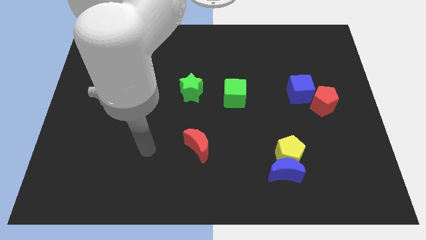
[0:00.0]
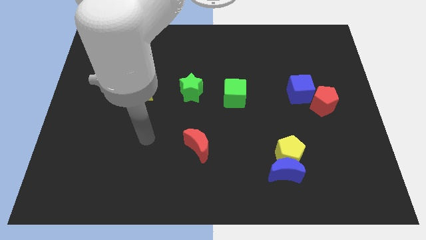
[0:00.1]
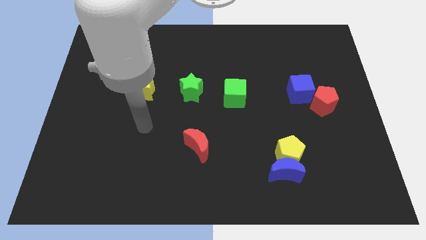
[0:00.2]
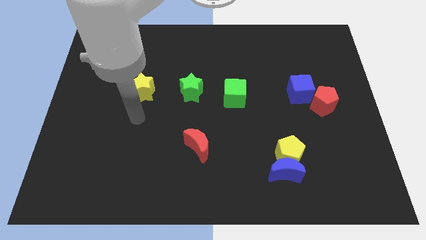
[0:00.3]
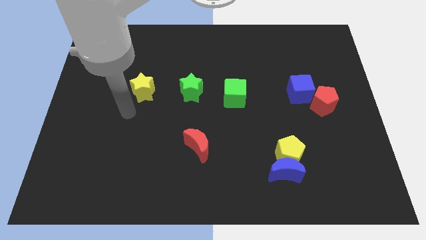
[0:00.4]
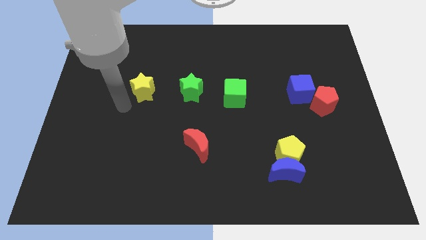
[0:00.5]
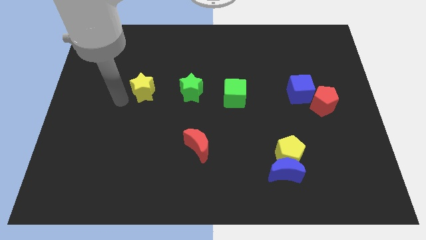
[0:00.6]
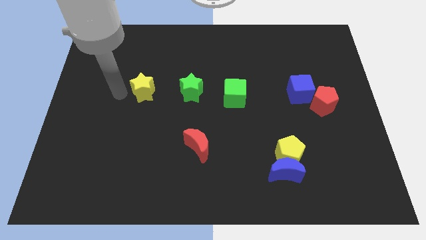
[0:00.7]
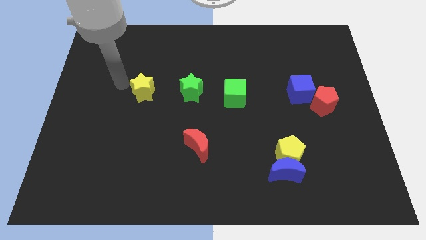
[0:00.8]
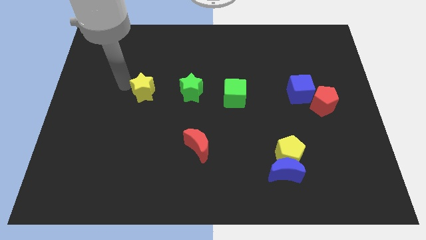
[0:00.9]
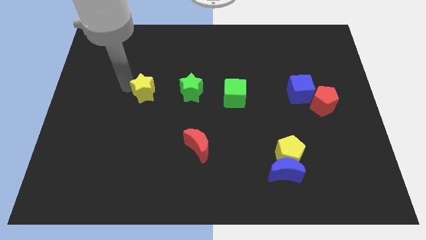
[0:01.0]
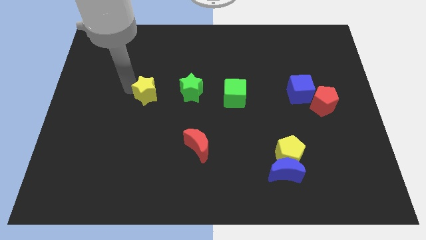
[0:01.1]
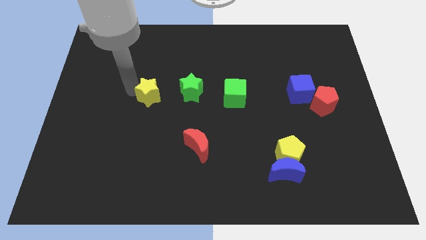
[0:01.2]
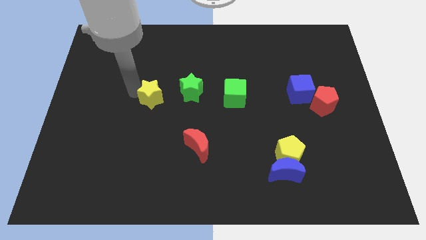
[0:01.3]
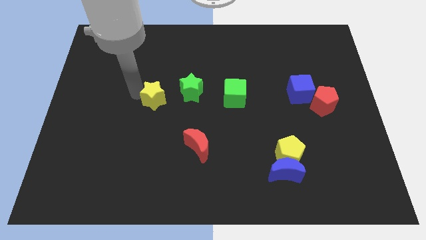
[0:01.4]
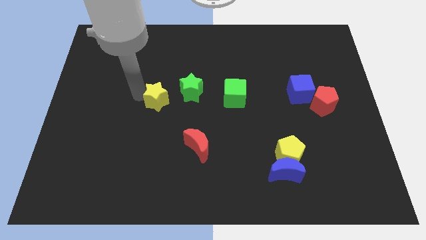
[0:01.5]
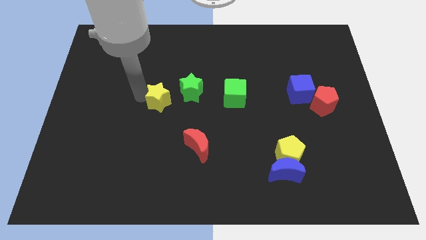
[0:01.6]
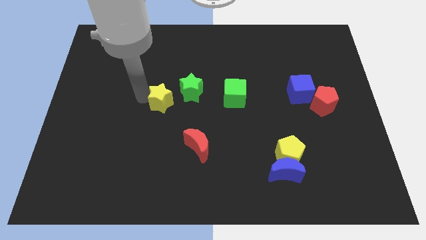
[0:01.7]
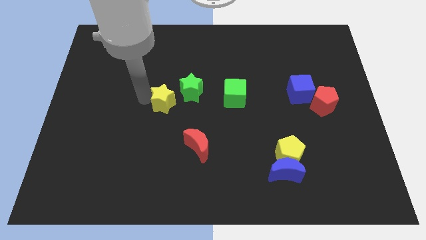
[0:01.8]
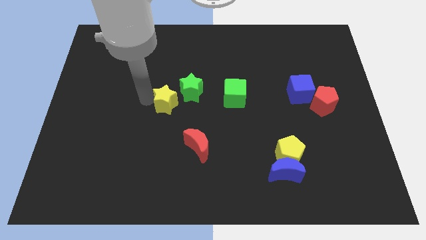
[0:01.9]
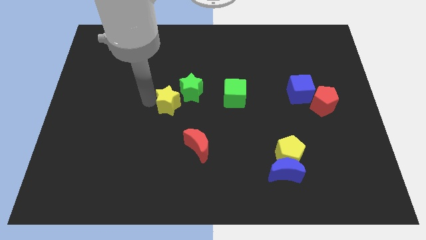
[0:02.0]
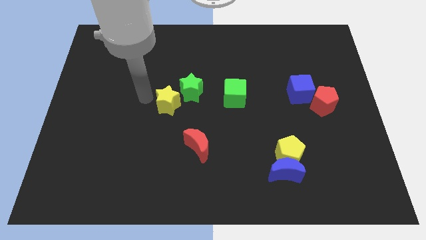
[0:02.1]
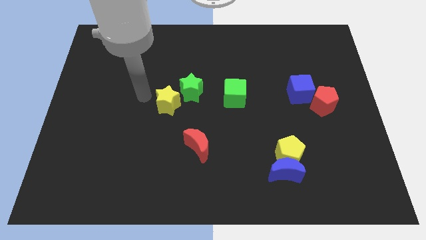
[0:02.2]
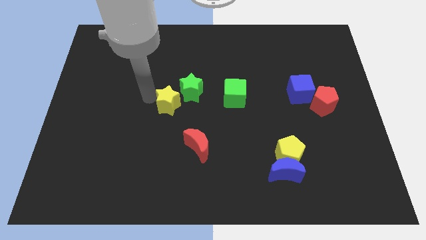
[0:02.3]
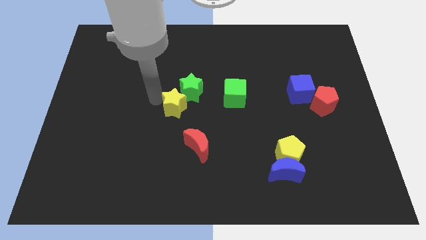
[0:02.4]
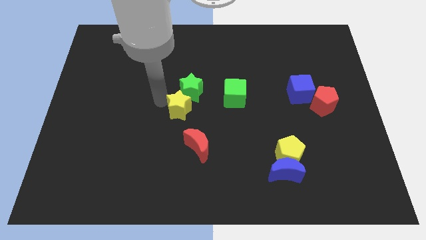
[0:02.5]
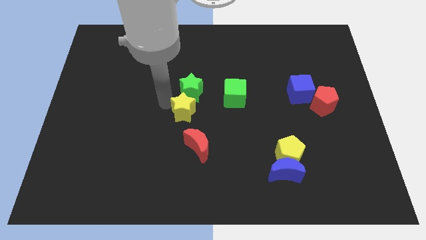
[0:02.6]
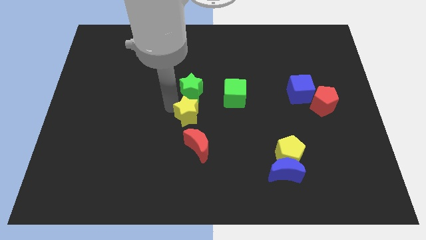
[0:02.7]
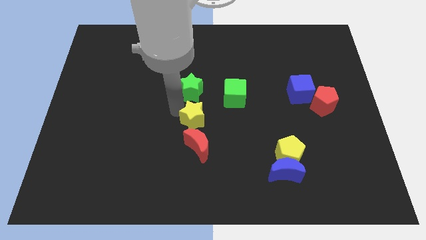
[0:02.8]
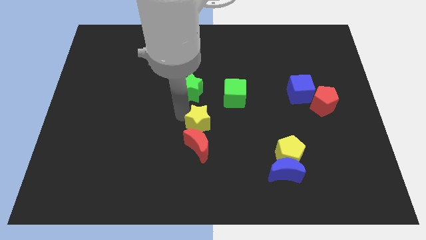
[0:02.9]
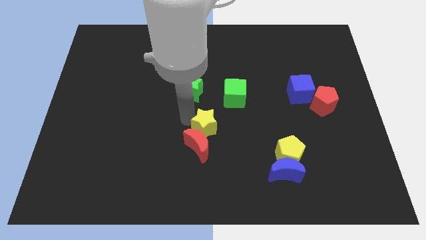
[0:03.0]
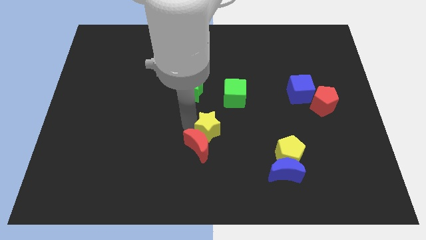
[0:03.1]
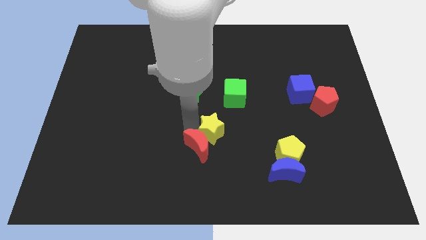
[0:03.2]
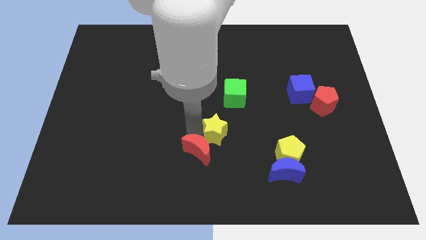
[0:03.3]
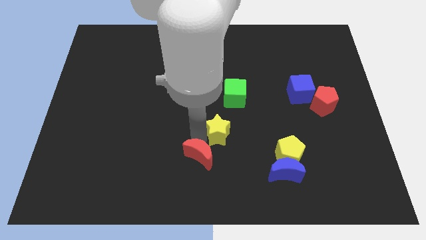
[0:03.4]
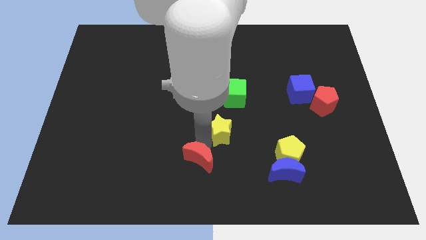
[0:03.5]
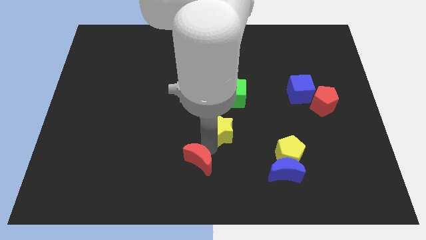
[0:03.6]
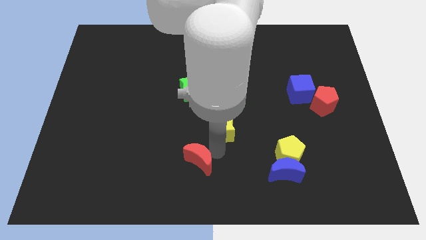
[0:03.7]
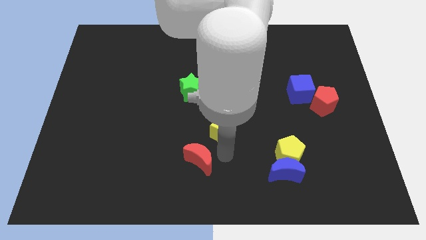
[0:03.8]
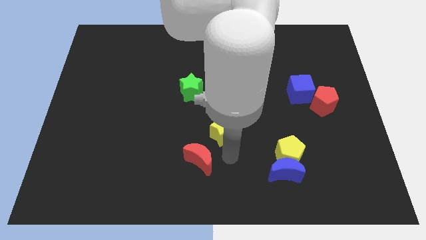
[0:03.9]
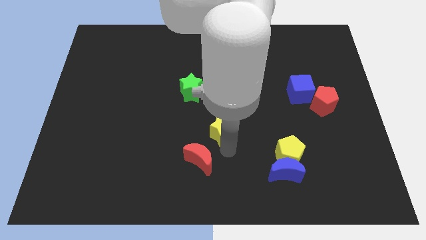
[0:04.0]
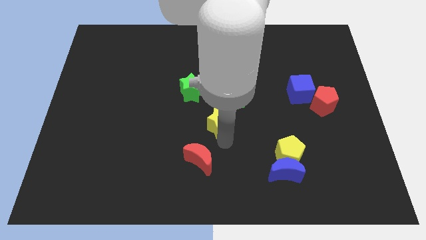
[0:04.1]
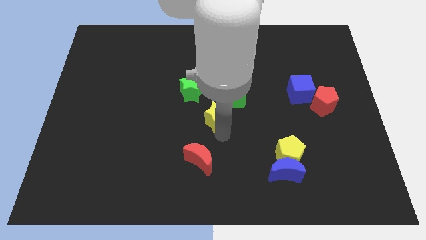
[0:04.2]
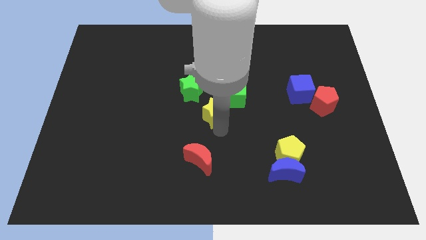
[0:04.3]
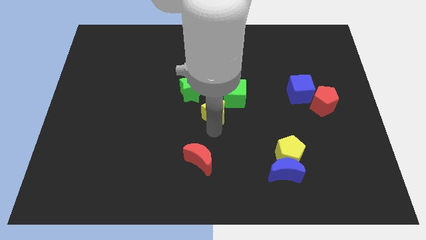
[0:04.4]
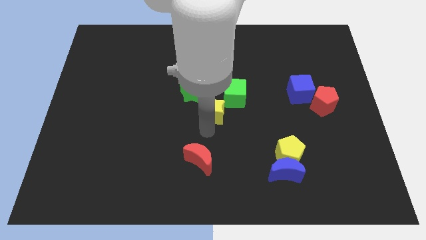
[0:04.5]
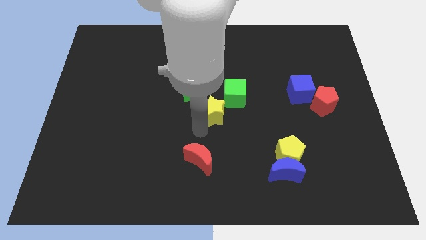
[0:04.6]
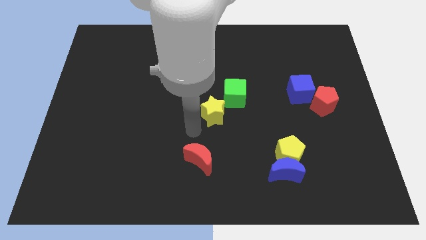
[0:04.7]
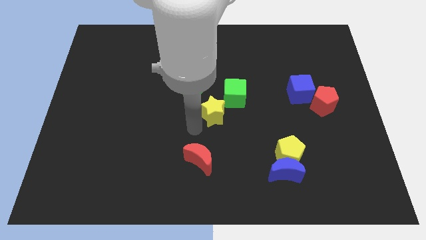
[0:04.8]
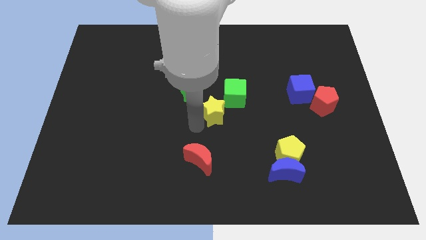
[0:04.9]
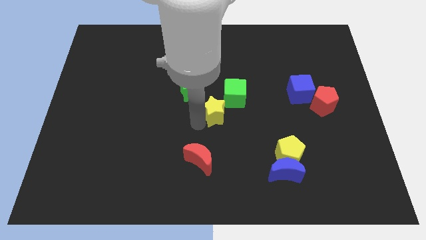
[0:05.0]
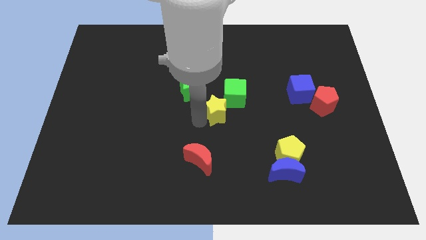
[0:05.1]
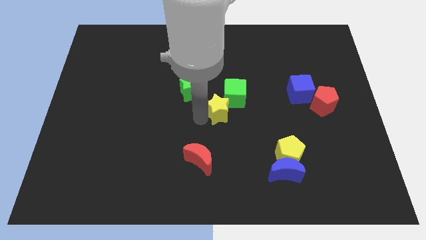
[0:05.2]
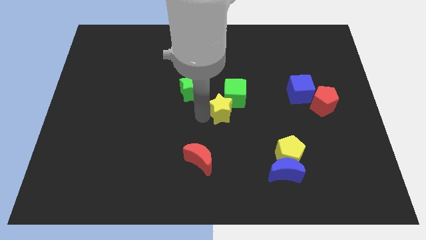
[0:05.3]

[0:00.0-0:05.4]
slide the yellow star towards the green cube

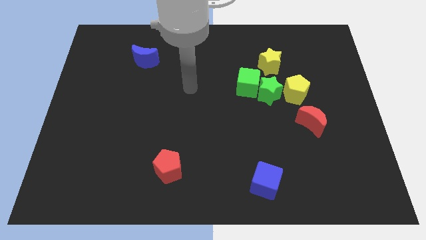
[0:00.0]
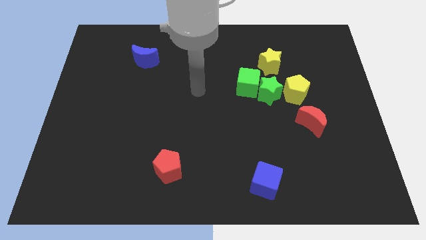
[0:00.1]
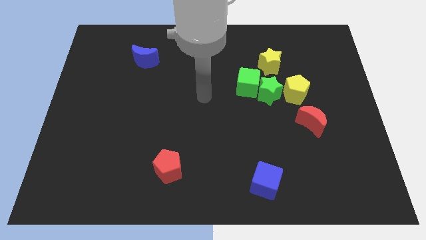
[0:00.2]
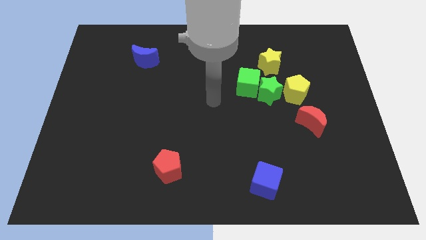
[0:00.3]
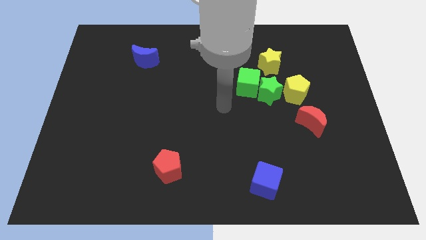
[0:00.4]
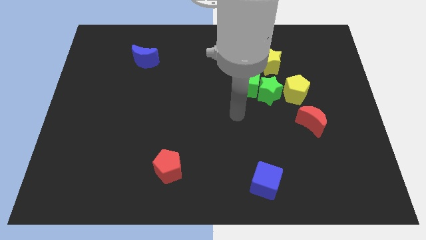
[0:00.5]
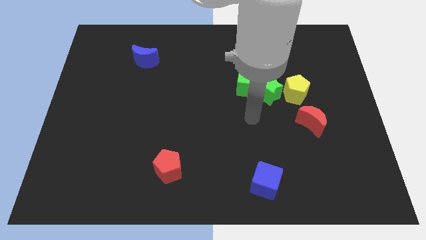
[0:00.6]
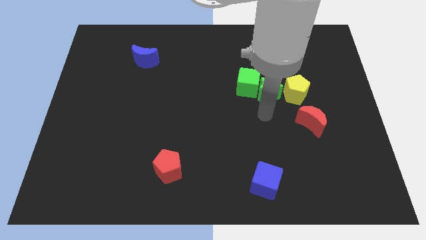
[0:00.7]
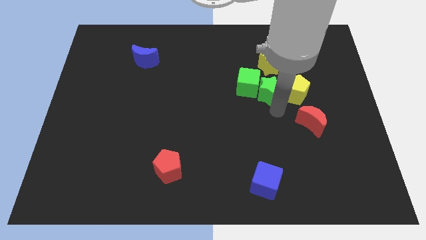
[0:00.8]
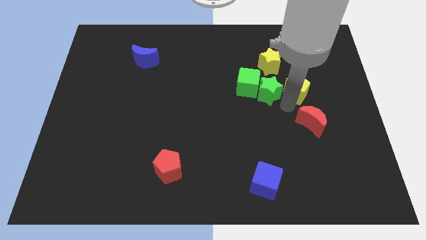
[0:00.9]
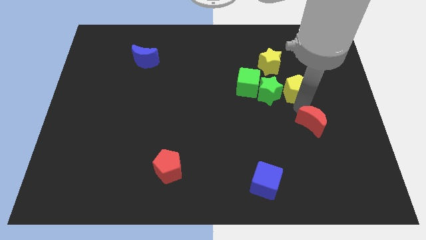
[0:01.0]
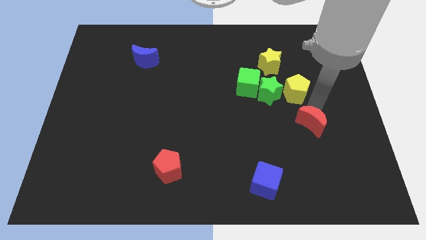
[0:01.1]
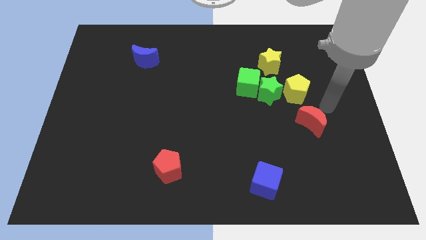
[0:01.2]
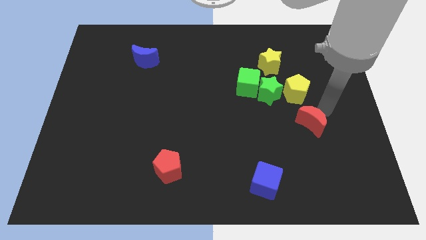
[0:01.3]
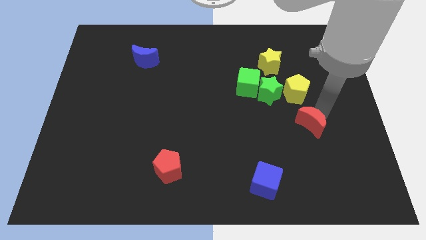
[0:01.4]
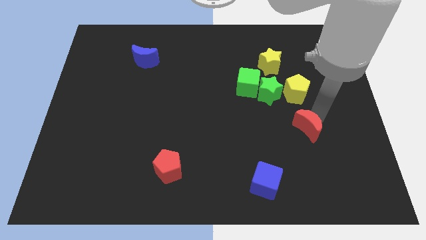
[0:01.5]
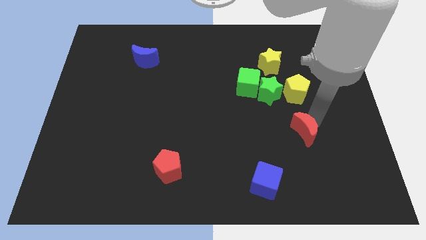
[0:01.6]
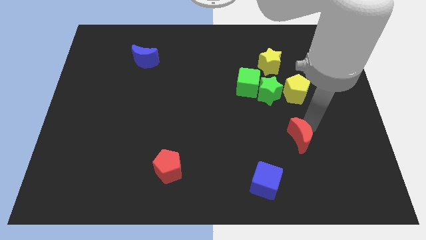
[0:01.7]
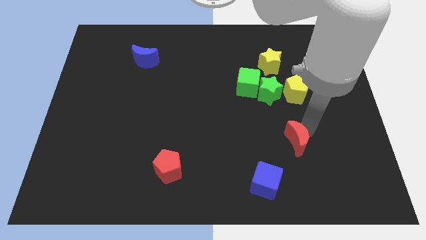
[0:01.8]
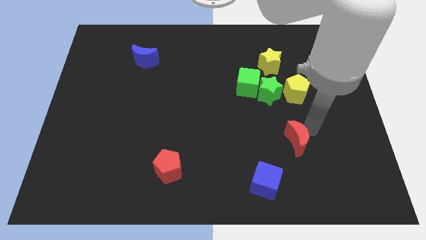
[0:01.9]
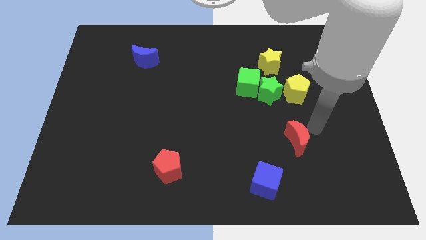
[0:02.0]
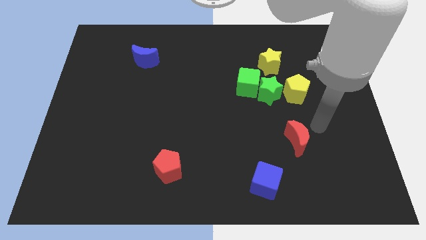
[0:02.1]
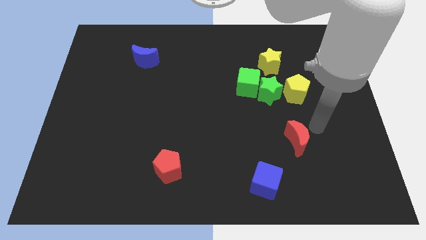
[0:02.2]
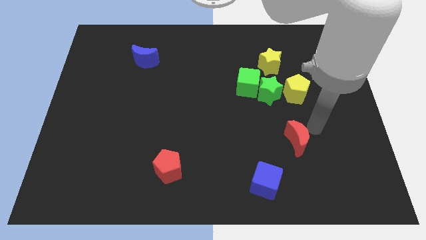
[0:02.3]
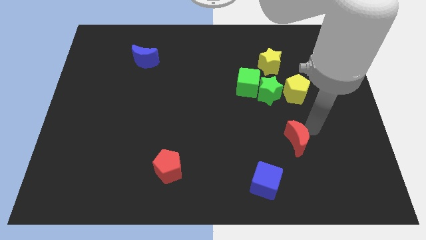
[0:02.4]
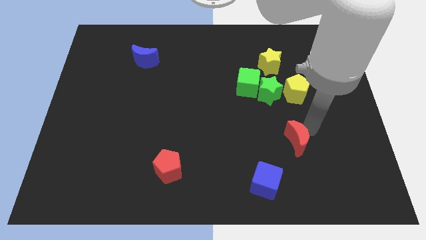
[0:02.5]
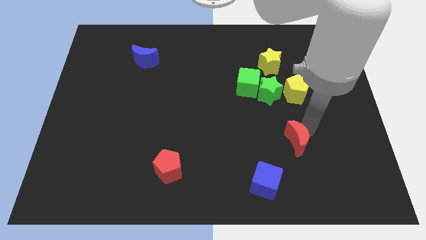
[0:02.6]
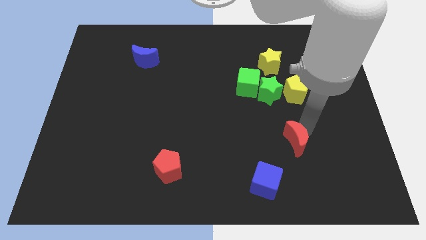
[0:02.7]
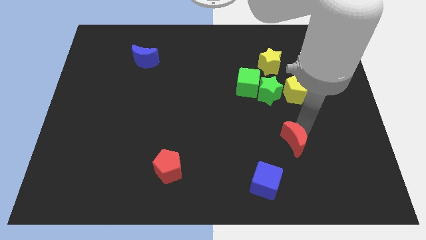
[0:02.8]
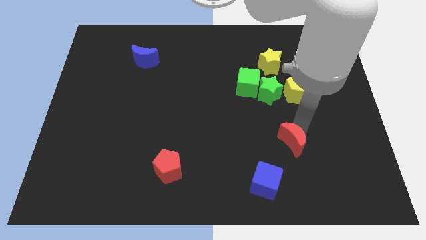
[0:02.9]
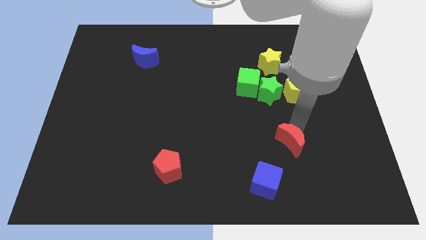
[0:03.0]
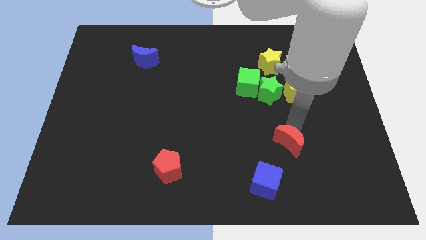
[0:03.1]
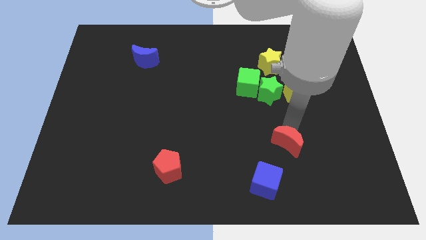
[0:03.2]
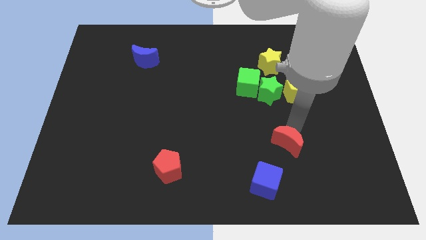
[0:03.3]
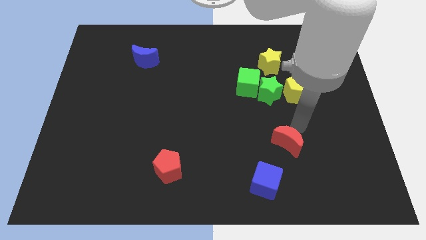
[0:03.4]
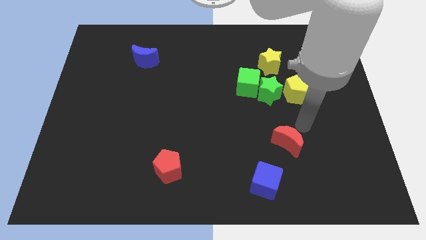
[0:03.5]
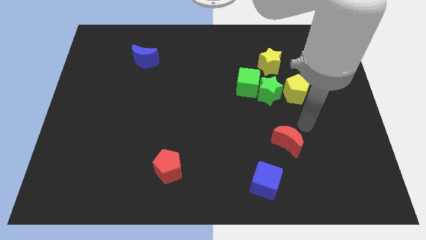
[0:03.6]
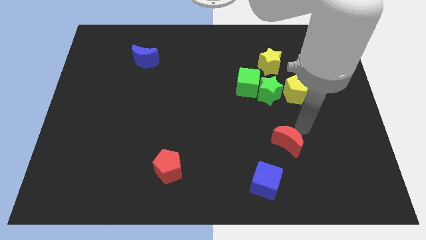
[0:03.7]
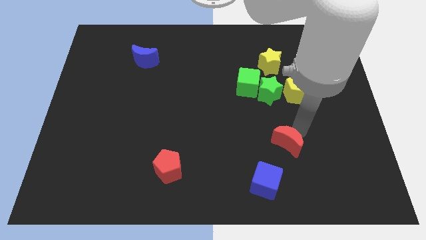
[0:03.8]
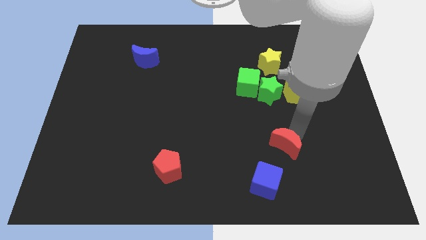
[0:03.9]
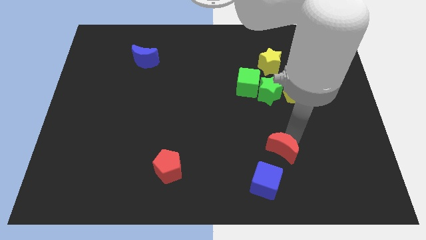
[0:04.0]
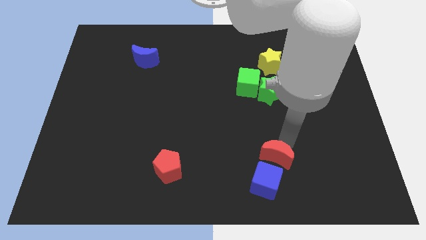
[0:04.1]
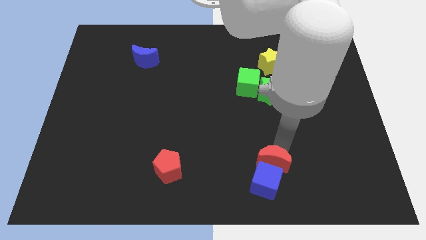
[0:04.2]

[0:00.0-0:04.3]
slide the red moon next to the blue cube
